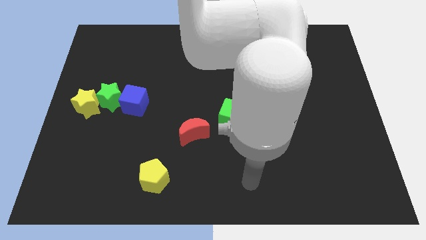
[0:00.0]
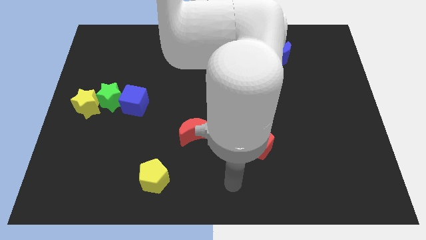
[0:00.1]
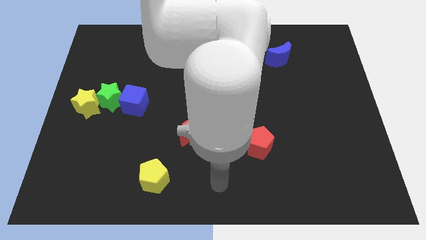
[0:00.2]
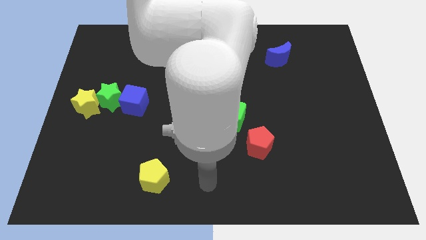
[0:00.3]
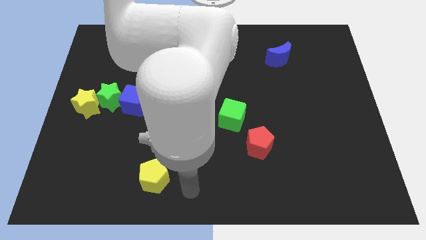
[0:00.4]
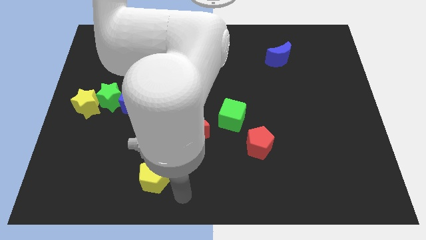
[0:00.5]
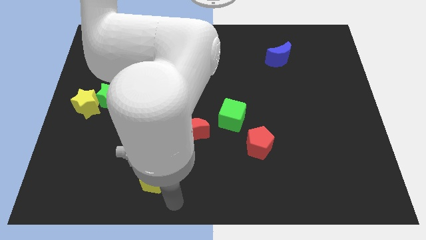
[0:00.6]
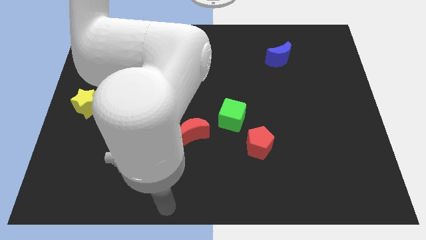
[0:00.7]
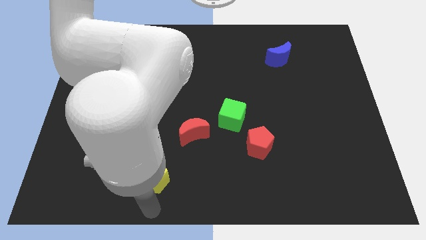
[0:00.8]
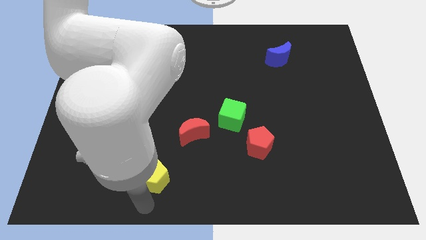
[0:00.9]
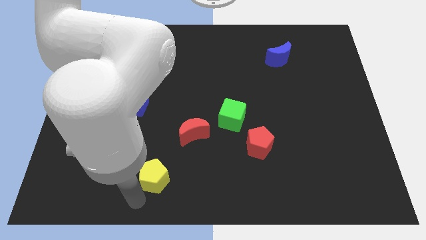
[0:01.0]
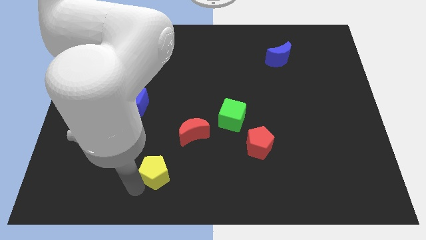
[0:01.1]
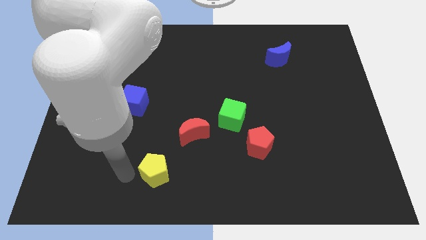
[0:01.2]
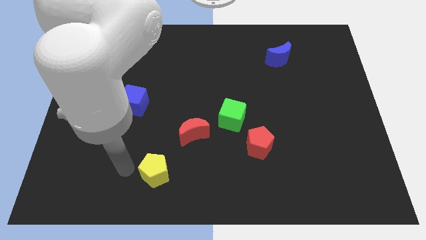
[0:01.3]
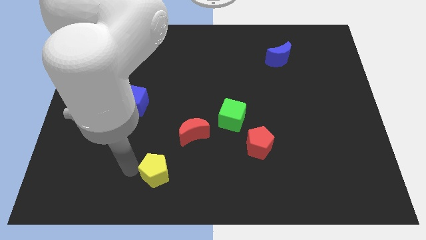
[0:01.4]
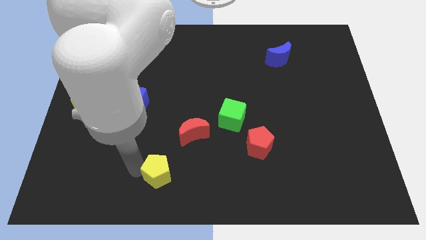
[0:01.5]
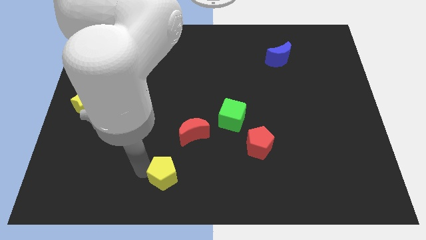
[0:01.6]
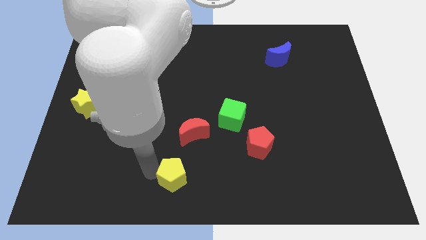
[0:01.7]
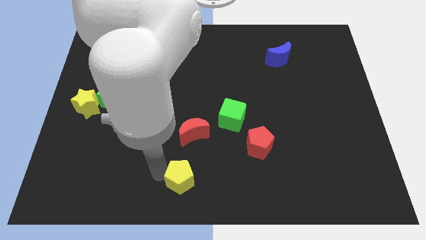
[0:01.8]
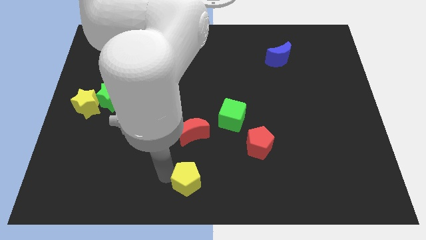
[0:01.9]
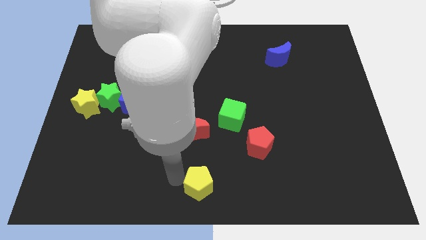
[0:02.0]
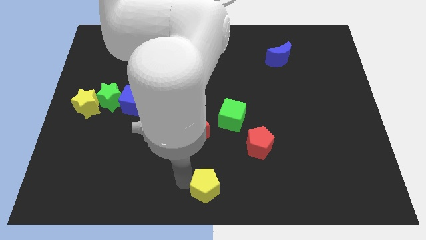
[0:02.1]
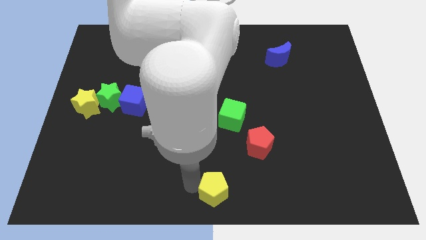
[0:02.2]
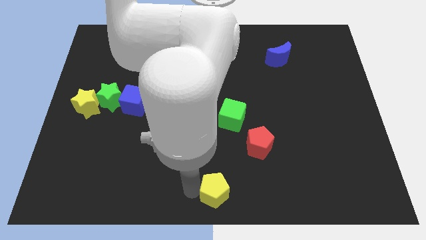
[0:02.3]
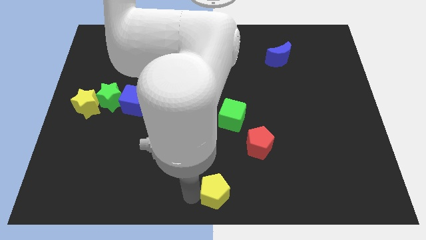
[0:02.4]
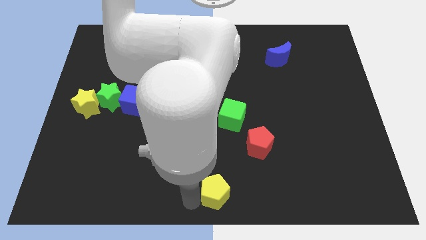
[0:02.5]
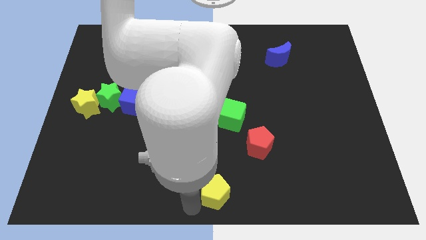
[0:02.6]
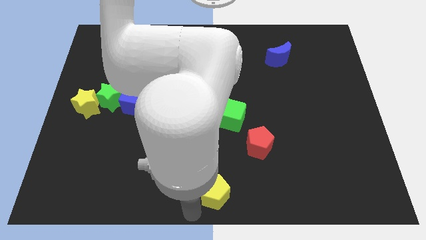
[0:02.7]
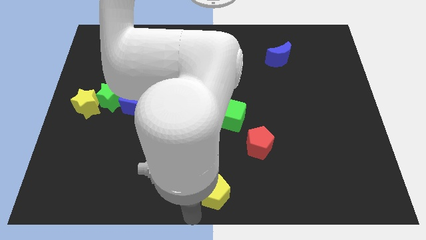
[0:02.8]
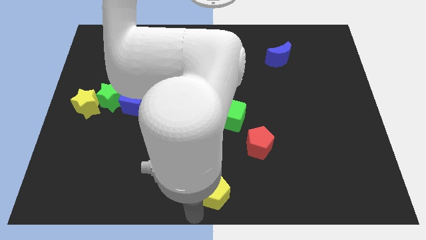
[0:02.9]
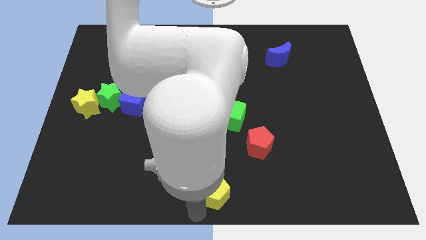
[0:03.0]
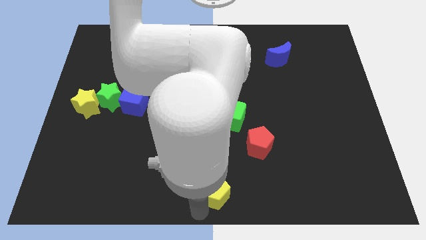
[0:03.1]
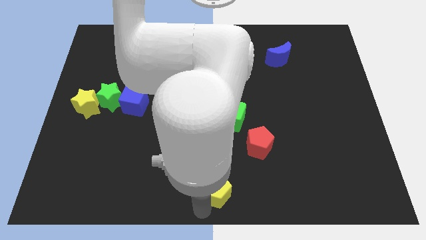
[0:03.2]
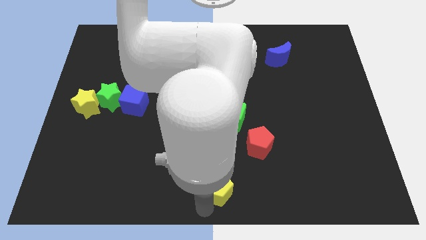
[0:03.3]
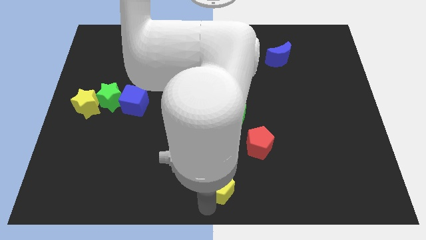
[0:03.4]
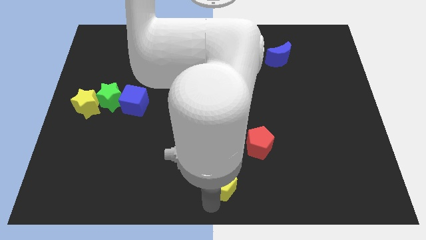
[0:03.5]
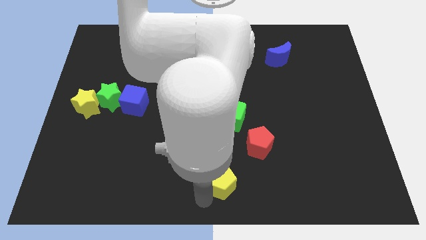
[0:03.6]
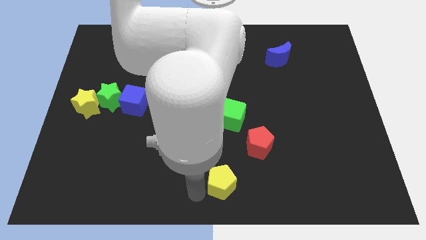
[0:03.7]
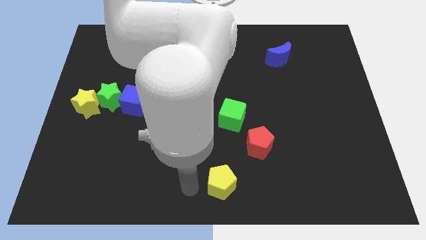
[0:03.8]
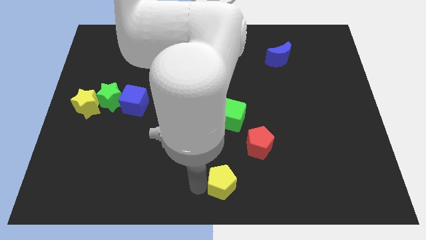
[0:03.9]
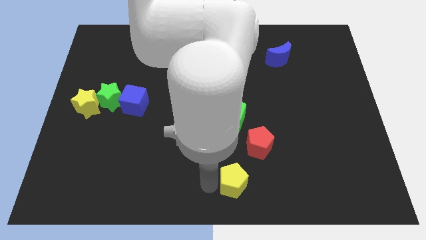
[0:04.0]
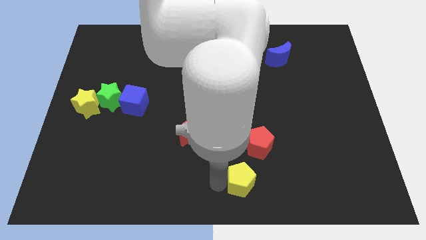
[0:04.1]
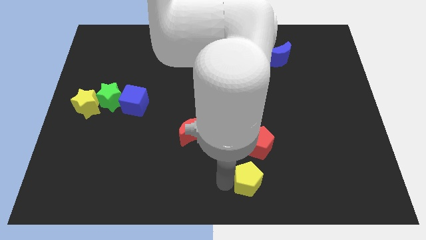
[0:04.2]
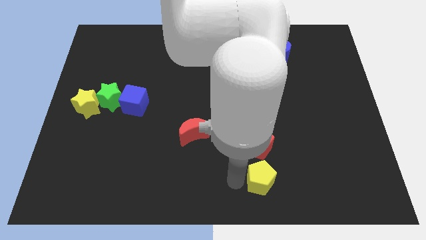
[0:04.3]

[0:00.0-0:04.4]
move the yellow pentagon right

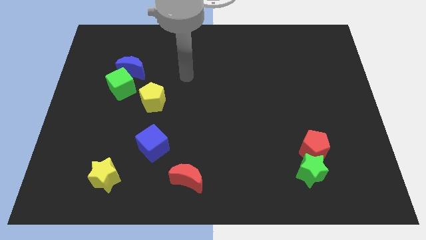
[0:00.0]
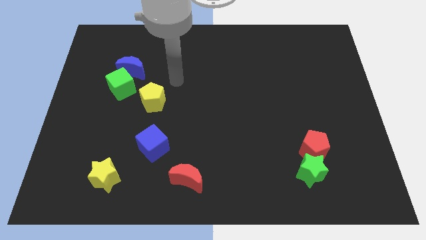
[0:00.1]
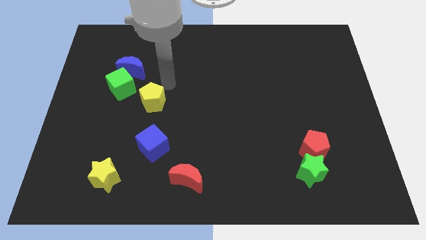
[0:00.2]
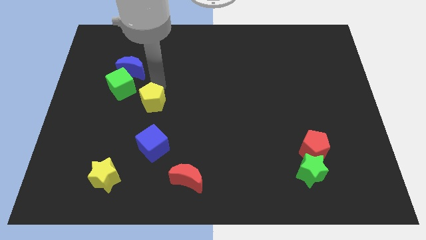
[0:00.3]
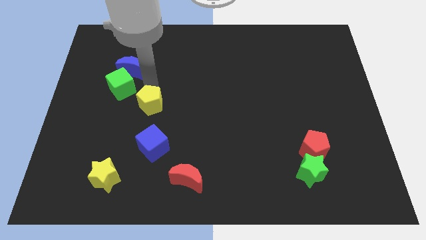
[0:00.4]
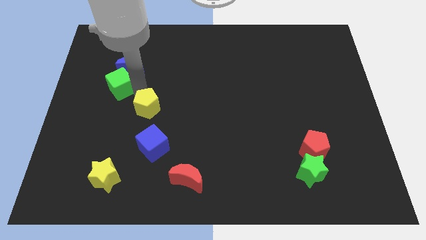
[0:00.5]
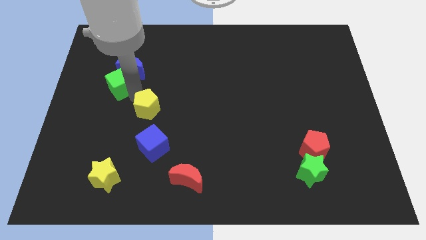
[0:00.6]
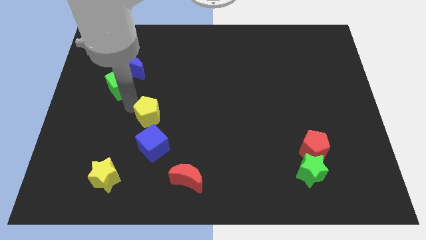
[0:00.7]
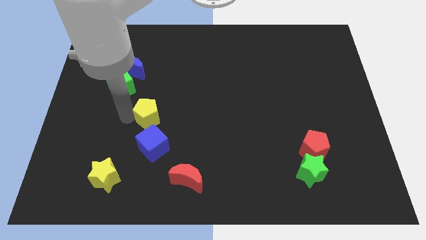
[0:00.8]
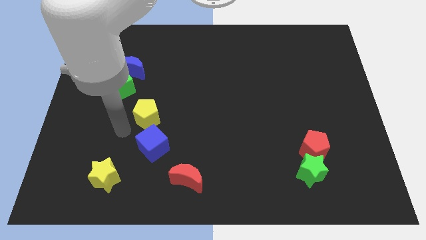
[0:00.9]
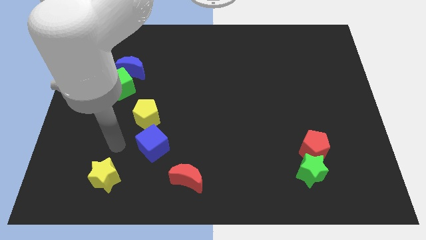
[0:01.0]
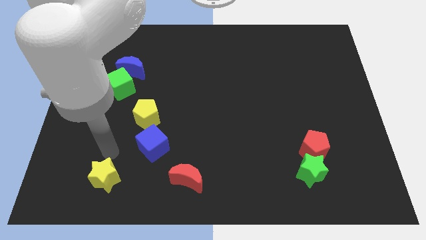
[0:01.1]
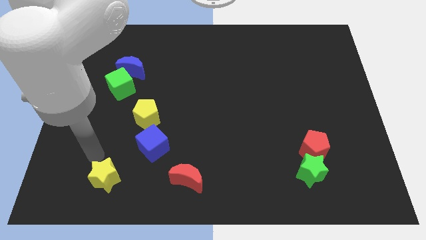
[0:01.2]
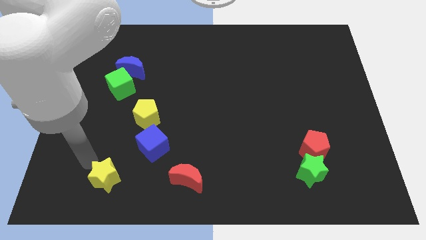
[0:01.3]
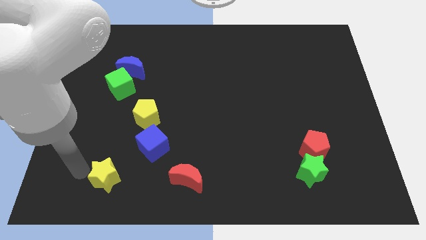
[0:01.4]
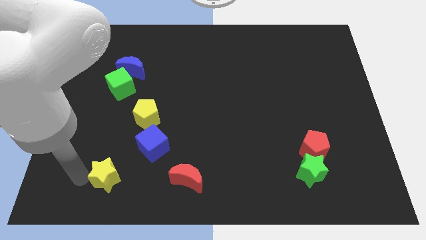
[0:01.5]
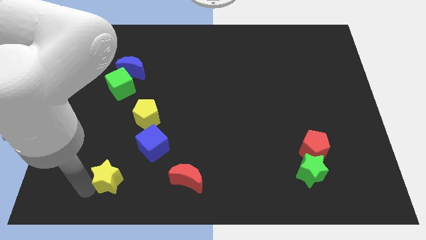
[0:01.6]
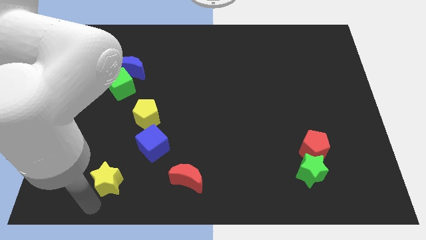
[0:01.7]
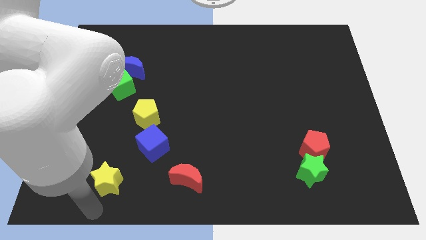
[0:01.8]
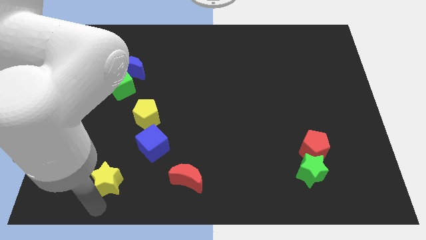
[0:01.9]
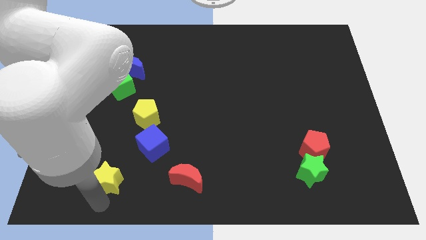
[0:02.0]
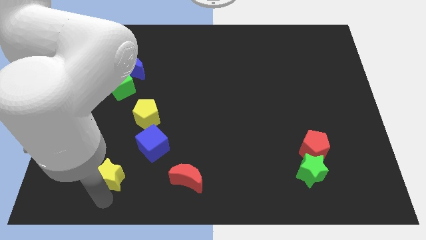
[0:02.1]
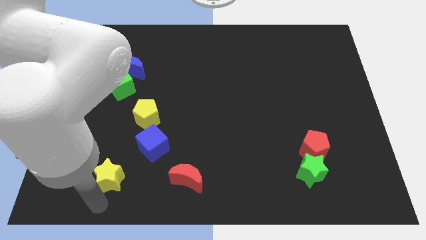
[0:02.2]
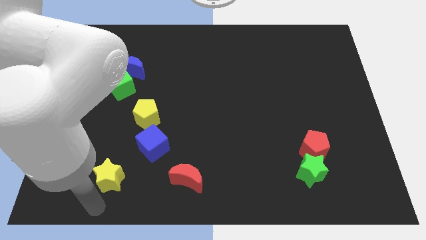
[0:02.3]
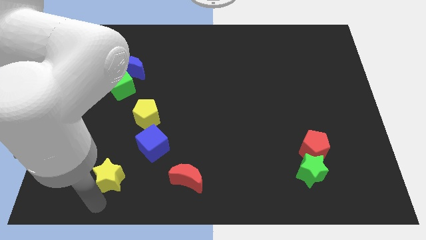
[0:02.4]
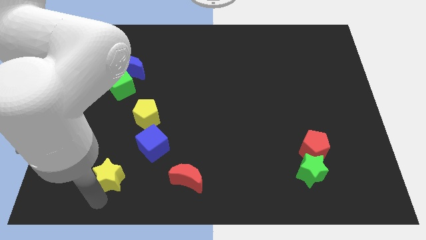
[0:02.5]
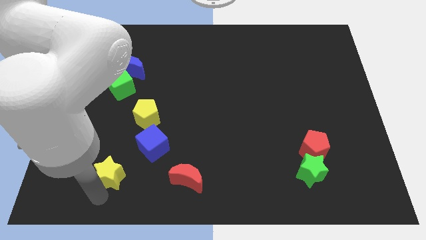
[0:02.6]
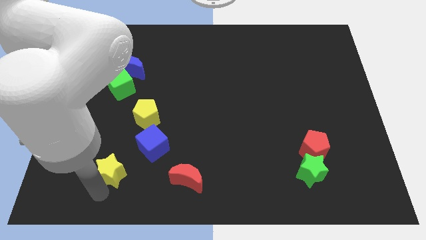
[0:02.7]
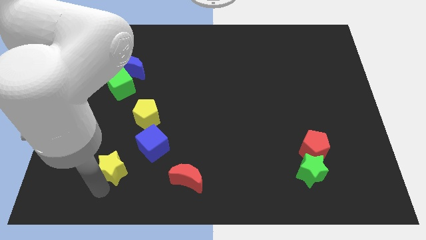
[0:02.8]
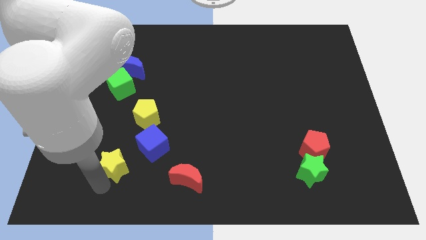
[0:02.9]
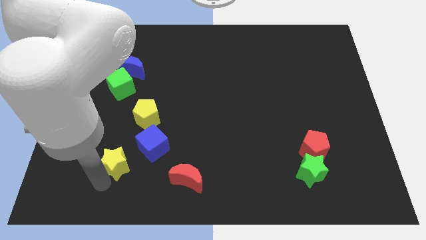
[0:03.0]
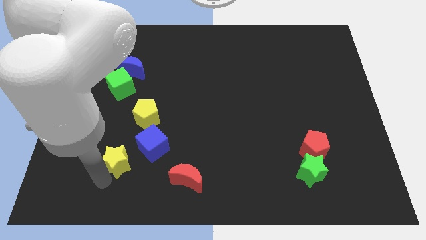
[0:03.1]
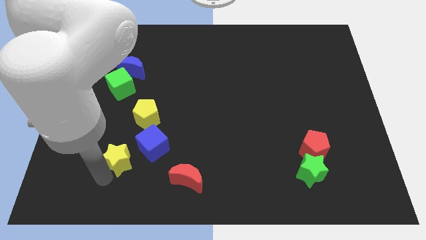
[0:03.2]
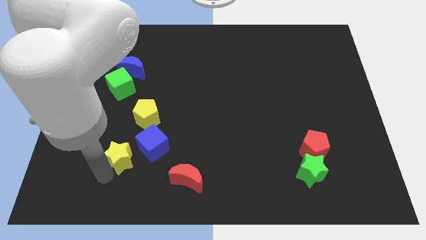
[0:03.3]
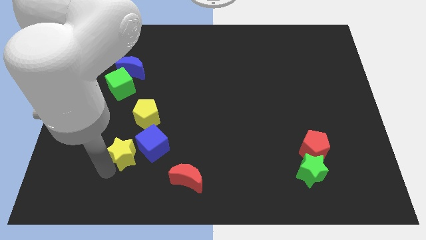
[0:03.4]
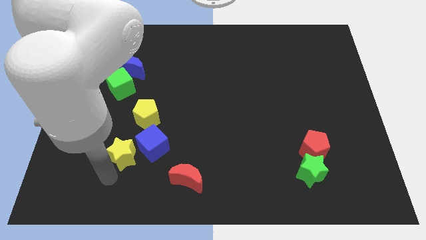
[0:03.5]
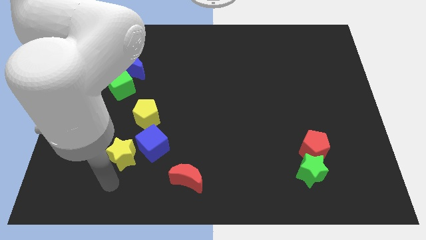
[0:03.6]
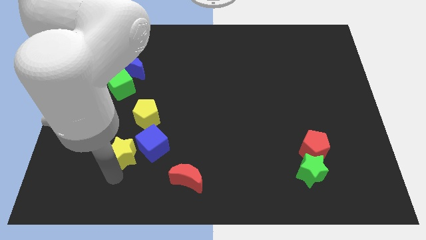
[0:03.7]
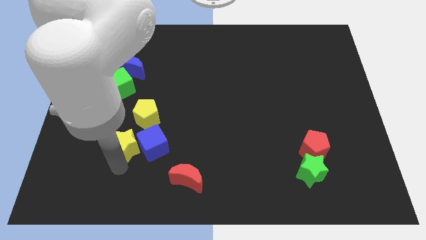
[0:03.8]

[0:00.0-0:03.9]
slightly move the yellow star upwards and then right
